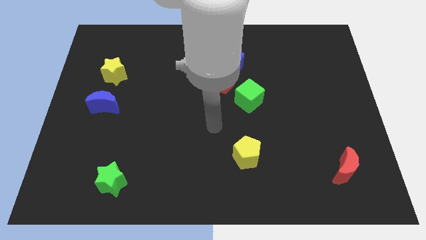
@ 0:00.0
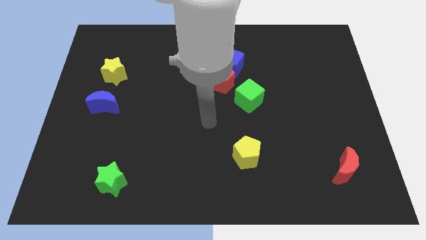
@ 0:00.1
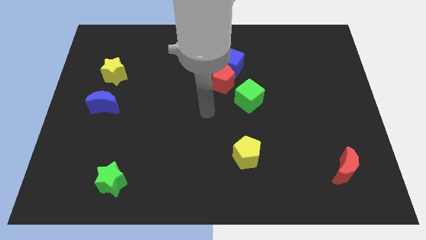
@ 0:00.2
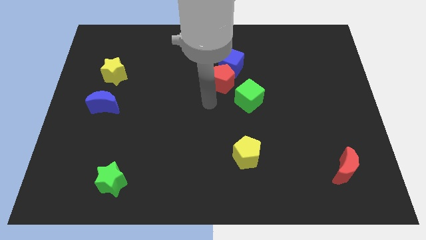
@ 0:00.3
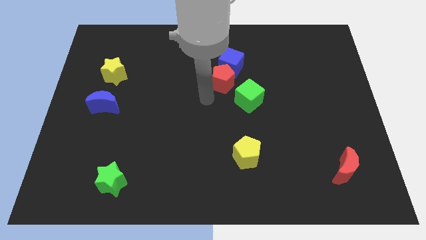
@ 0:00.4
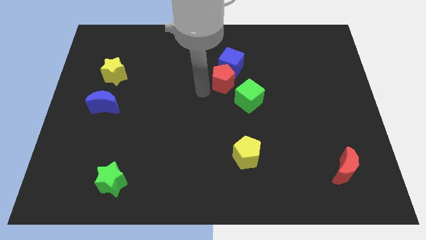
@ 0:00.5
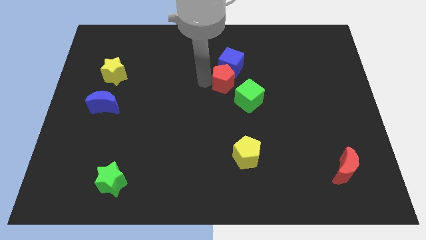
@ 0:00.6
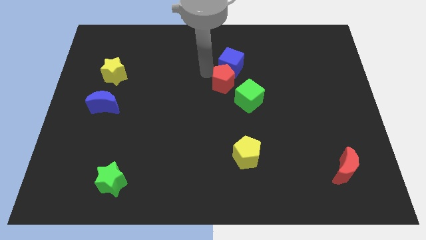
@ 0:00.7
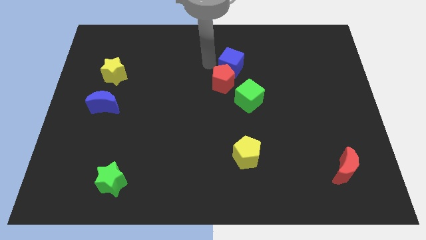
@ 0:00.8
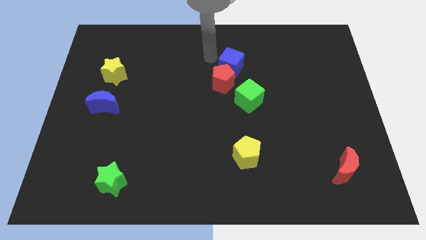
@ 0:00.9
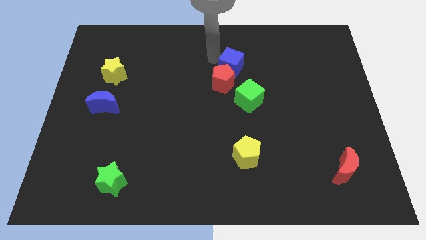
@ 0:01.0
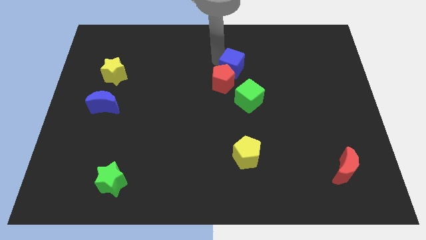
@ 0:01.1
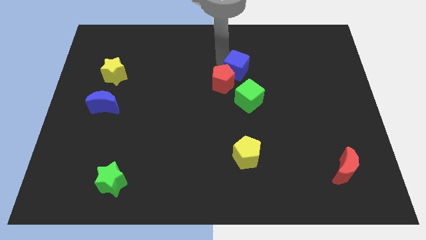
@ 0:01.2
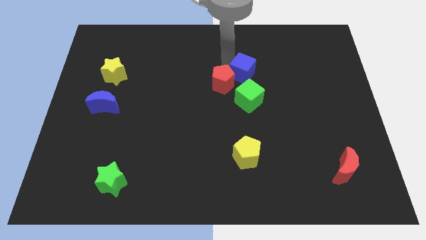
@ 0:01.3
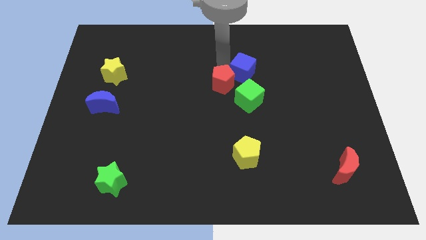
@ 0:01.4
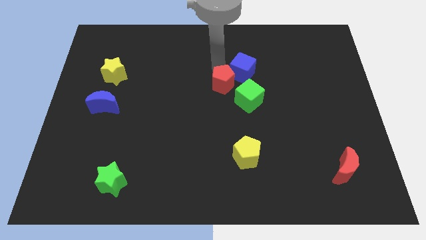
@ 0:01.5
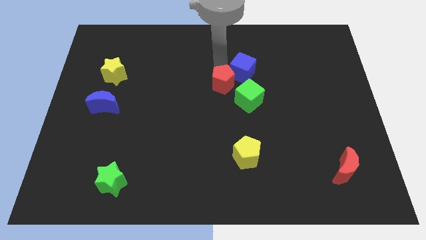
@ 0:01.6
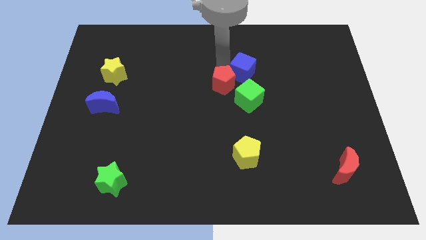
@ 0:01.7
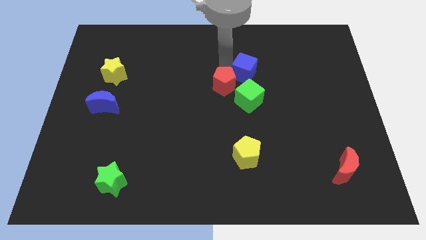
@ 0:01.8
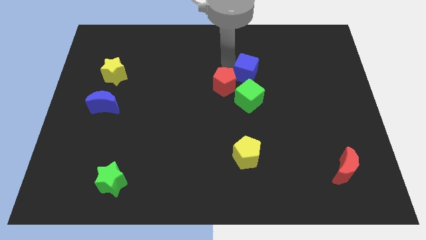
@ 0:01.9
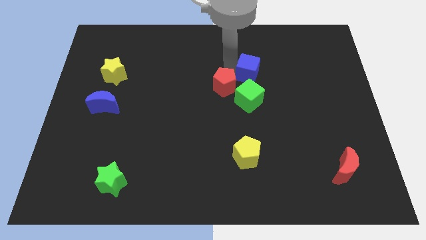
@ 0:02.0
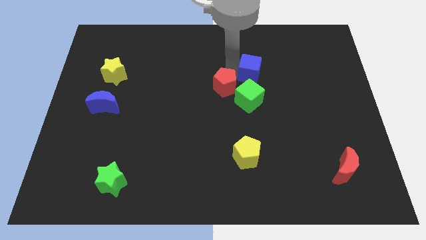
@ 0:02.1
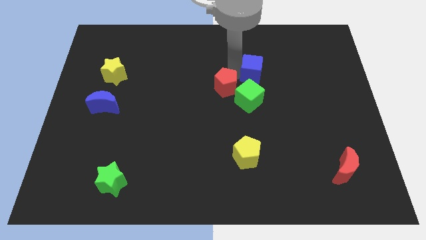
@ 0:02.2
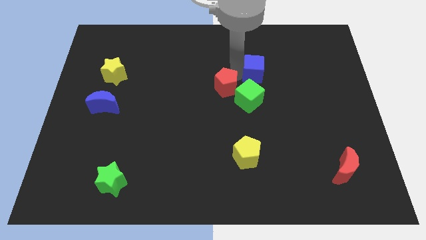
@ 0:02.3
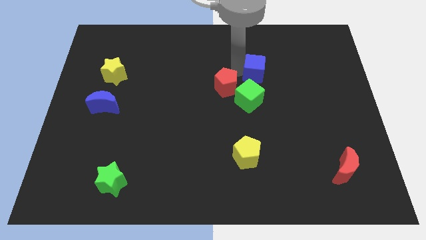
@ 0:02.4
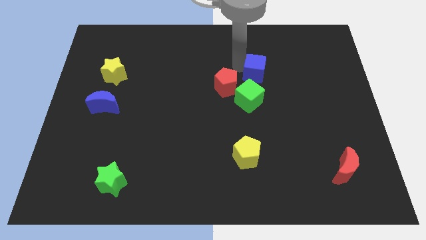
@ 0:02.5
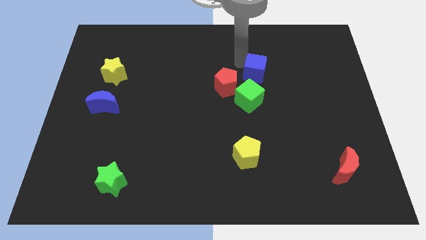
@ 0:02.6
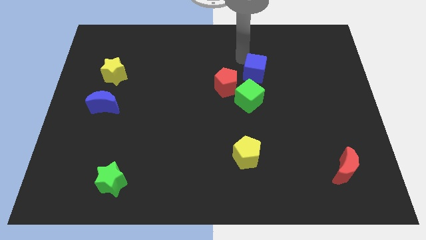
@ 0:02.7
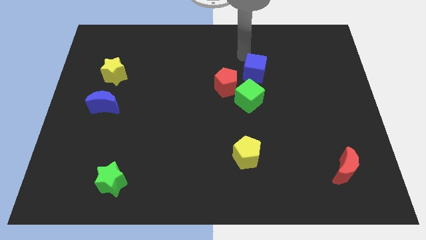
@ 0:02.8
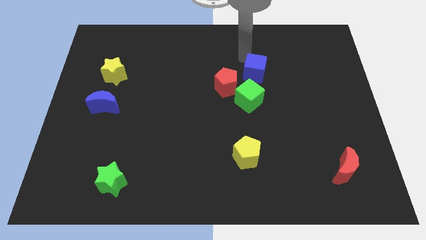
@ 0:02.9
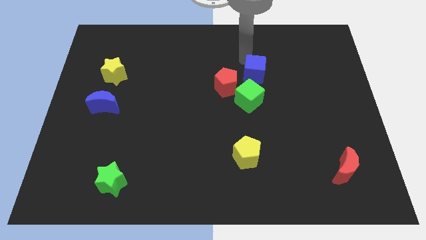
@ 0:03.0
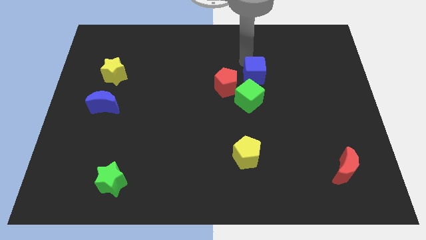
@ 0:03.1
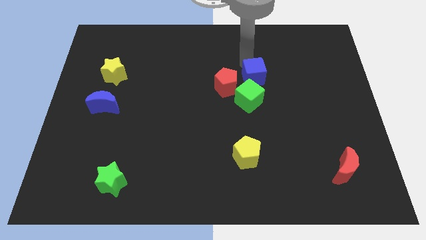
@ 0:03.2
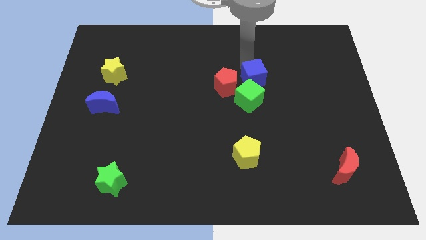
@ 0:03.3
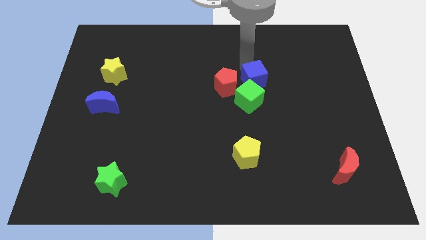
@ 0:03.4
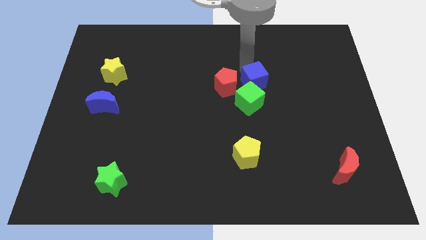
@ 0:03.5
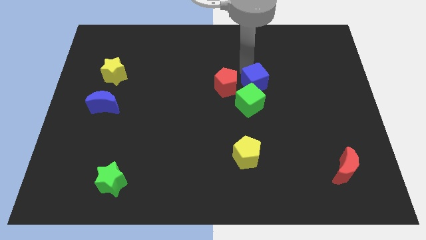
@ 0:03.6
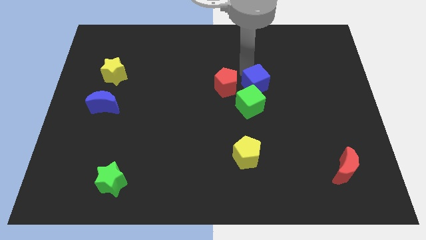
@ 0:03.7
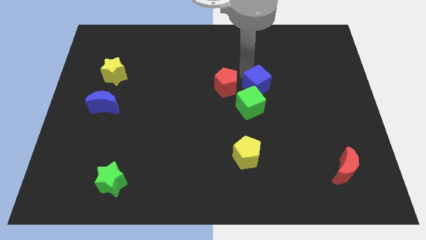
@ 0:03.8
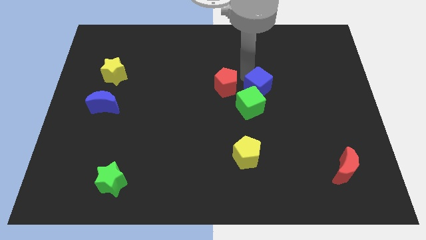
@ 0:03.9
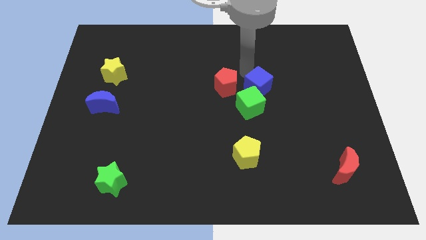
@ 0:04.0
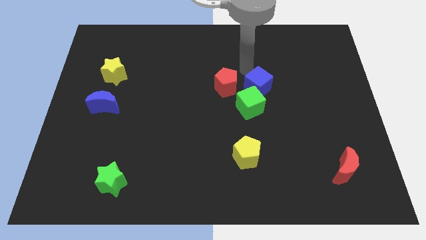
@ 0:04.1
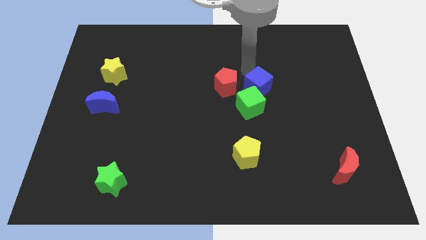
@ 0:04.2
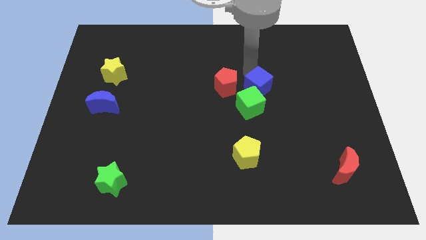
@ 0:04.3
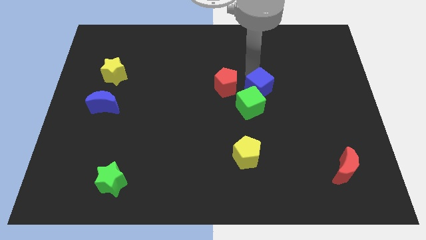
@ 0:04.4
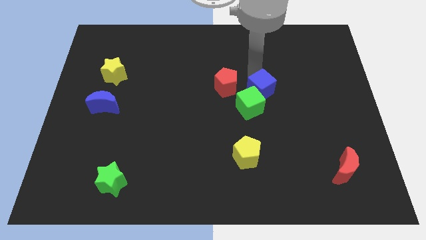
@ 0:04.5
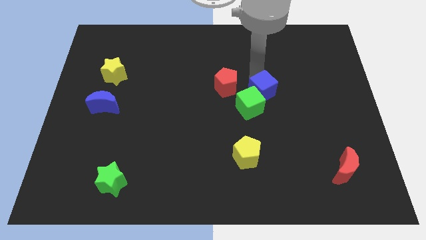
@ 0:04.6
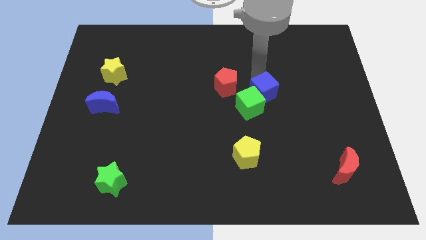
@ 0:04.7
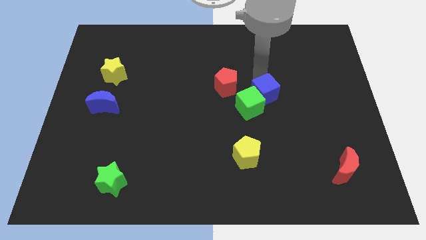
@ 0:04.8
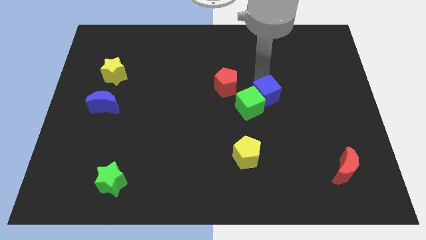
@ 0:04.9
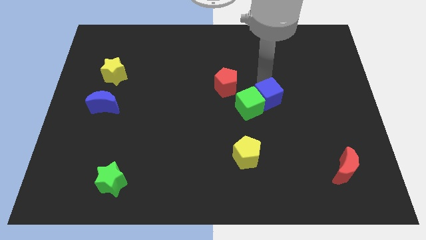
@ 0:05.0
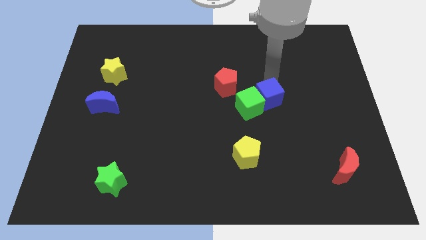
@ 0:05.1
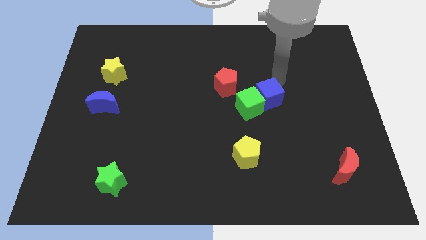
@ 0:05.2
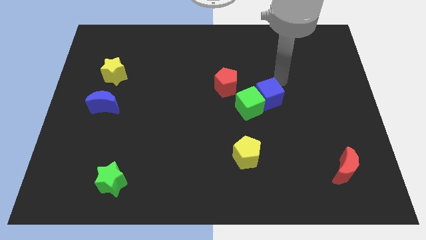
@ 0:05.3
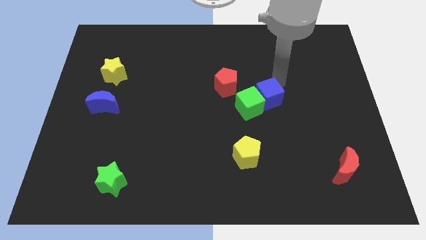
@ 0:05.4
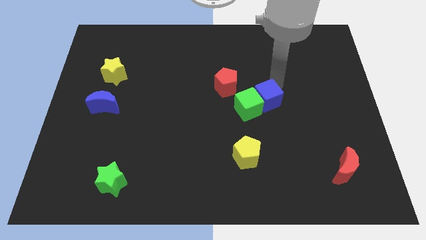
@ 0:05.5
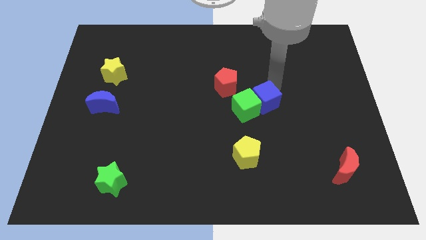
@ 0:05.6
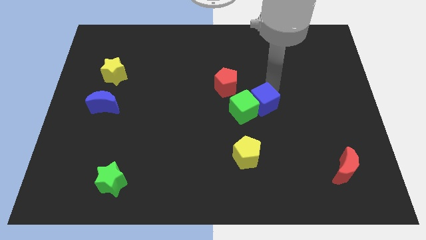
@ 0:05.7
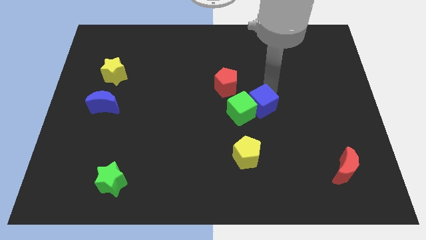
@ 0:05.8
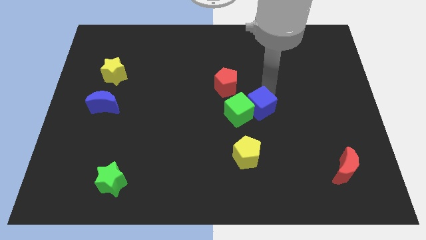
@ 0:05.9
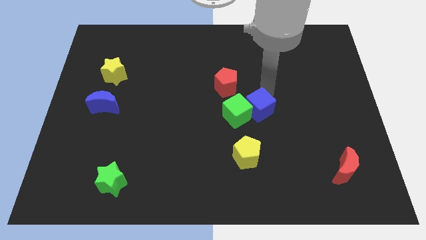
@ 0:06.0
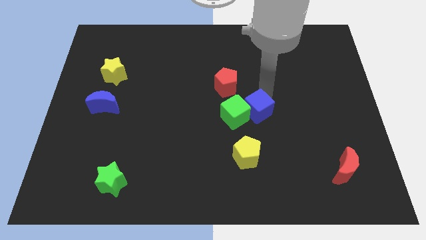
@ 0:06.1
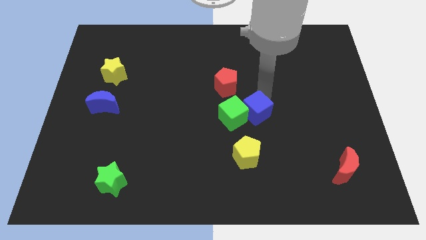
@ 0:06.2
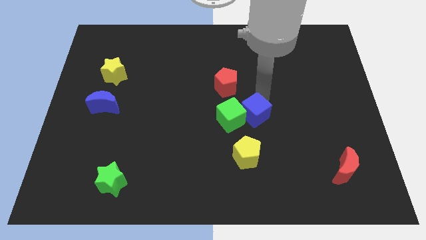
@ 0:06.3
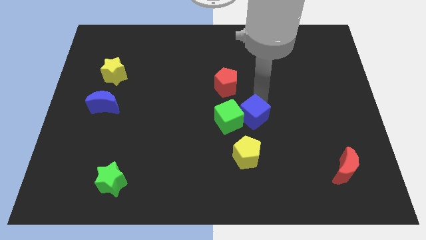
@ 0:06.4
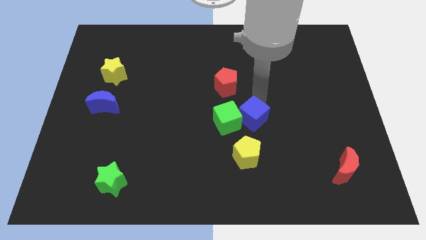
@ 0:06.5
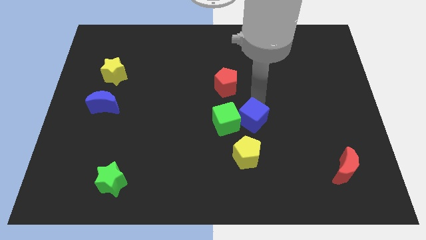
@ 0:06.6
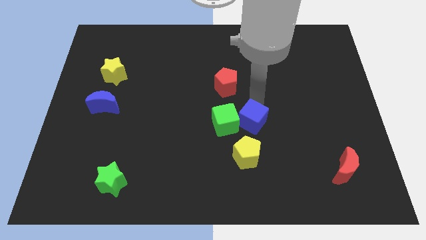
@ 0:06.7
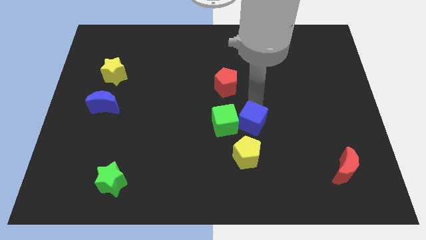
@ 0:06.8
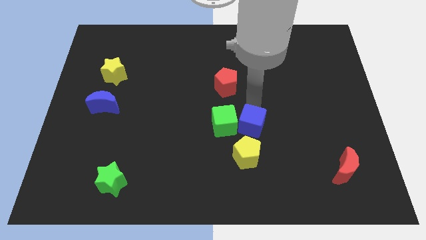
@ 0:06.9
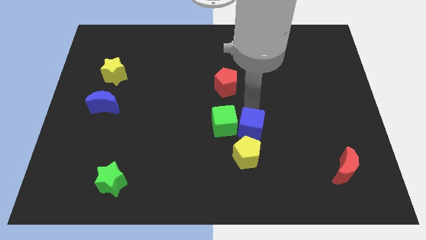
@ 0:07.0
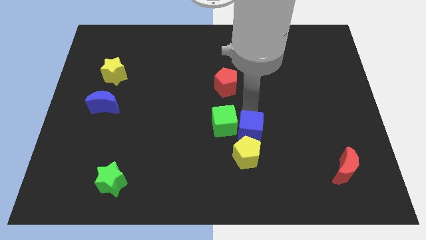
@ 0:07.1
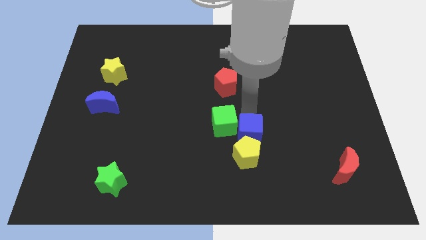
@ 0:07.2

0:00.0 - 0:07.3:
push the blue cube next to the yellow pentagon
